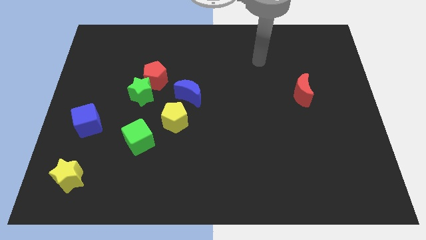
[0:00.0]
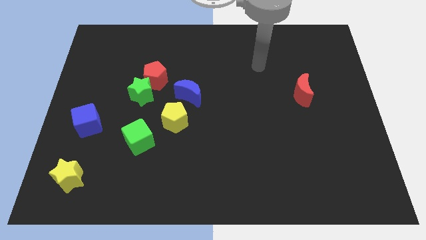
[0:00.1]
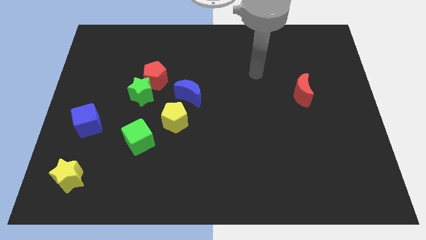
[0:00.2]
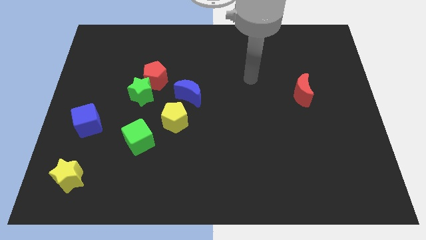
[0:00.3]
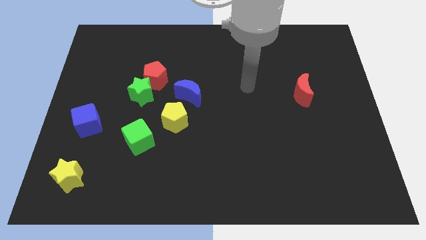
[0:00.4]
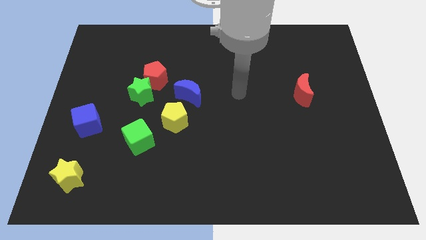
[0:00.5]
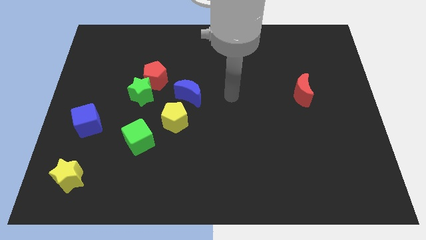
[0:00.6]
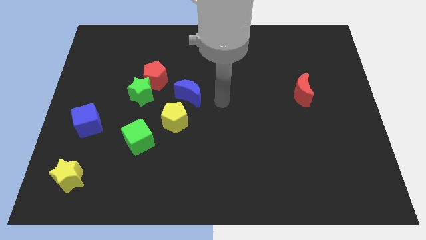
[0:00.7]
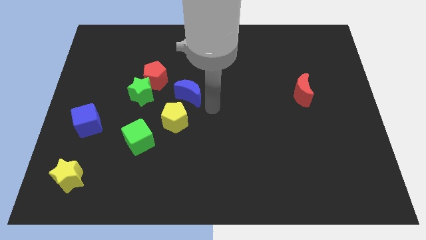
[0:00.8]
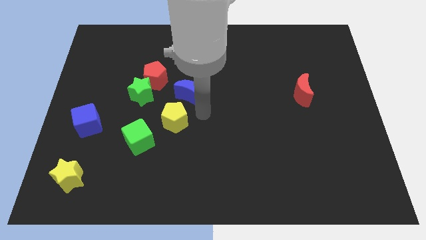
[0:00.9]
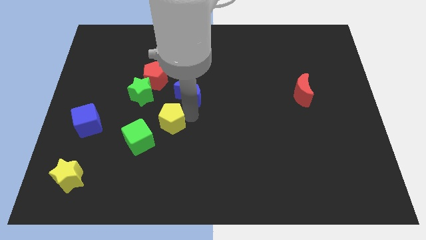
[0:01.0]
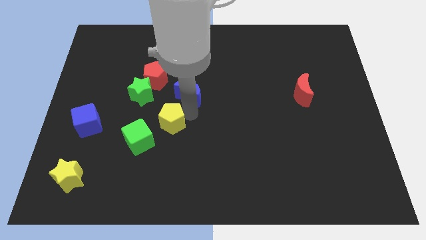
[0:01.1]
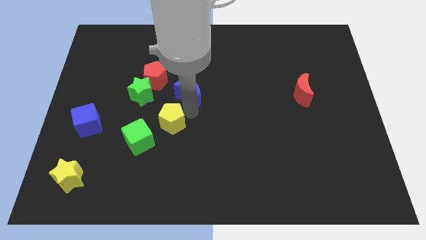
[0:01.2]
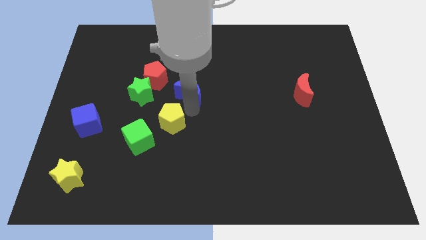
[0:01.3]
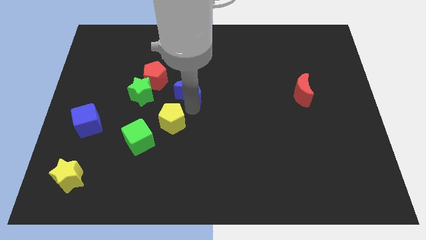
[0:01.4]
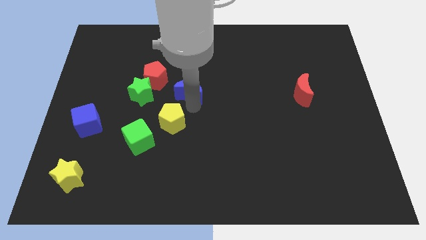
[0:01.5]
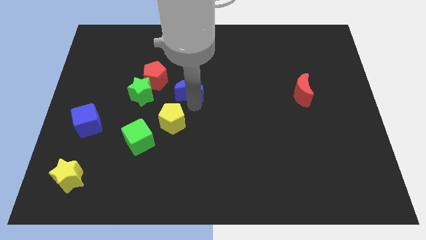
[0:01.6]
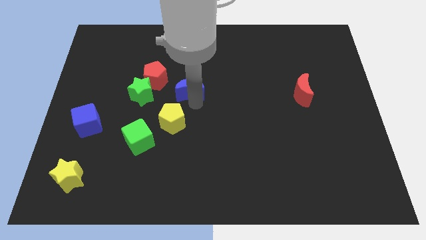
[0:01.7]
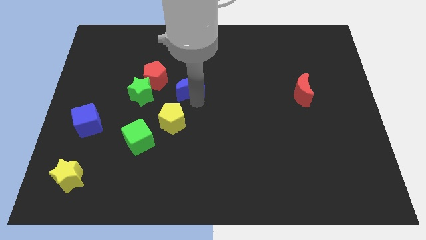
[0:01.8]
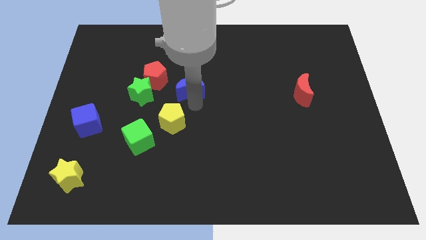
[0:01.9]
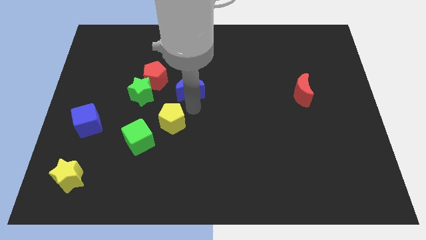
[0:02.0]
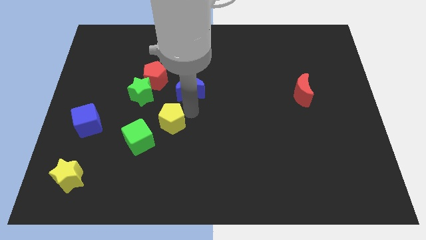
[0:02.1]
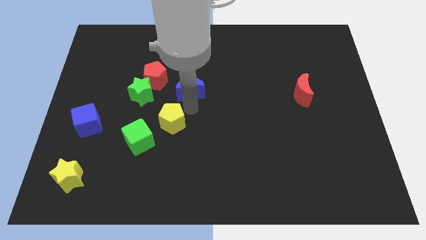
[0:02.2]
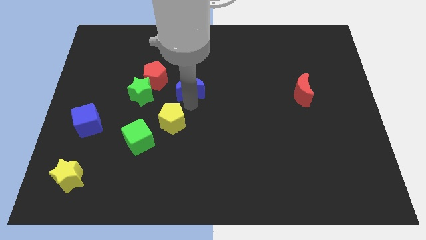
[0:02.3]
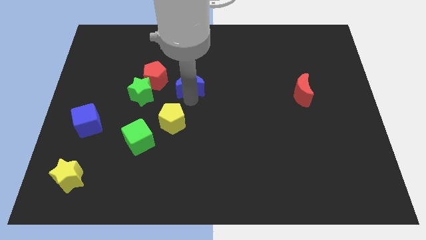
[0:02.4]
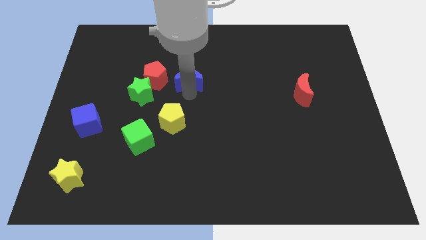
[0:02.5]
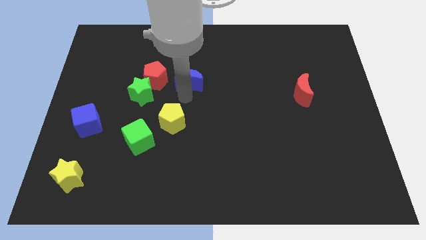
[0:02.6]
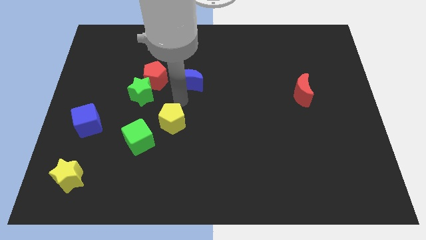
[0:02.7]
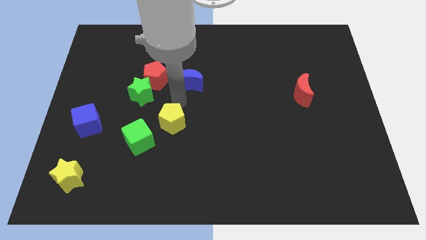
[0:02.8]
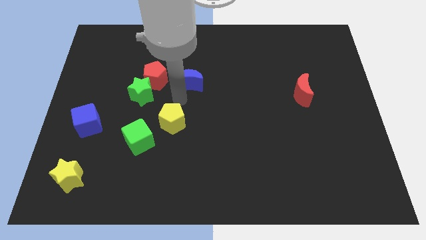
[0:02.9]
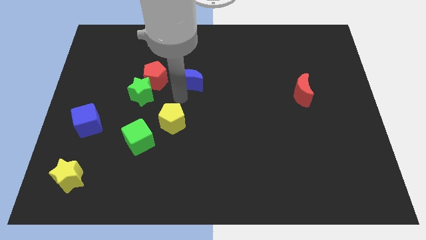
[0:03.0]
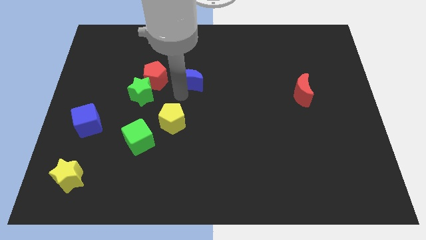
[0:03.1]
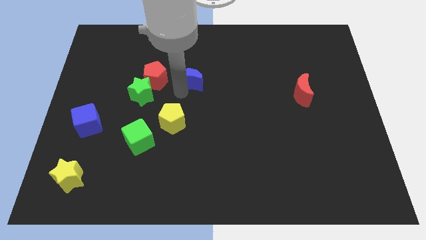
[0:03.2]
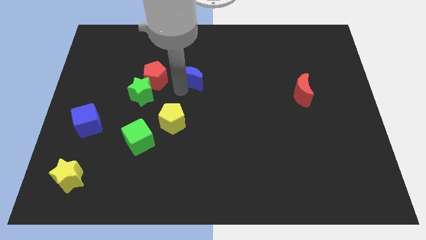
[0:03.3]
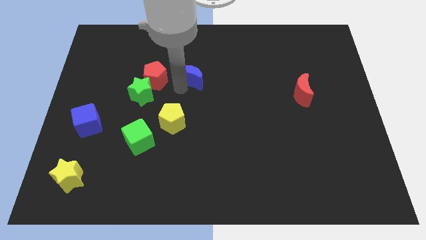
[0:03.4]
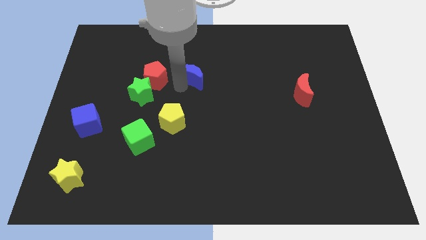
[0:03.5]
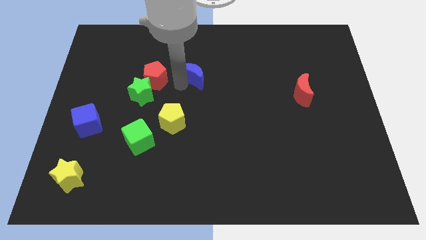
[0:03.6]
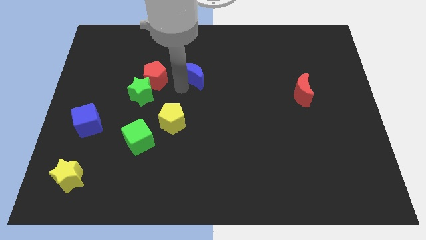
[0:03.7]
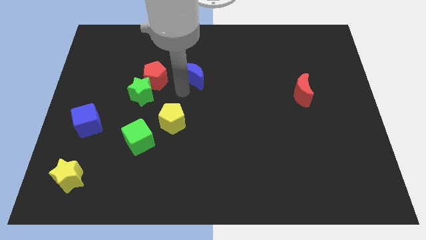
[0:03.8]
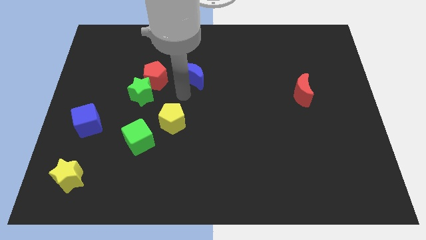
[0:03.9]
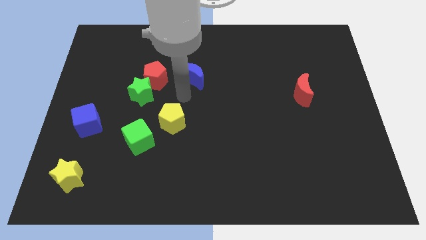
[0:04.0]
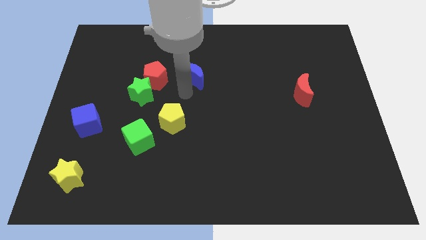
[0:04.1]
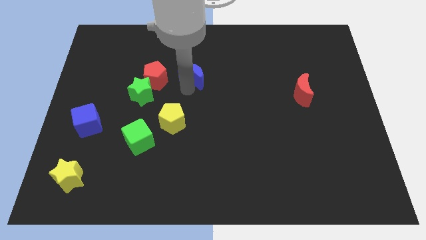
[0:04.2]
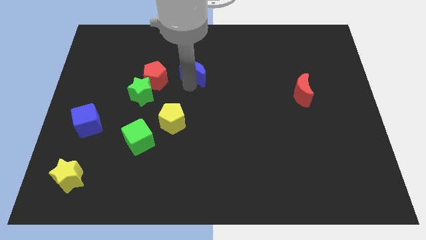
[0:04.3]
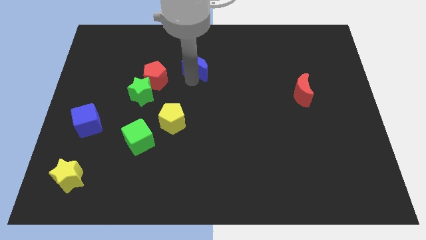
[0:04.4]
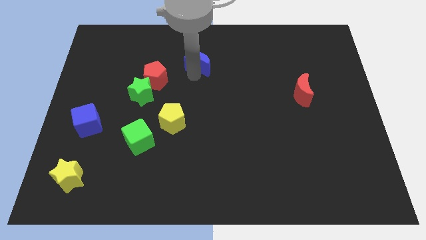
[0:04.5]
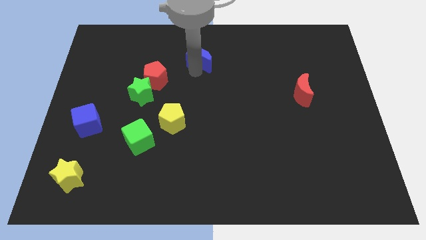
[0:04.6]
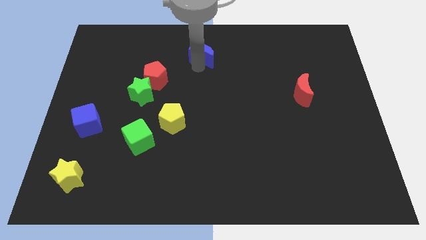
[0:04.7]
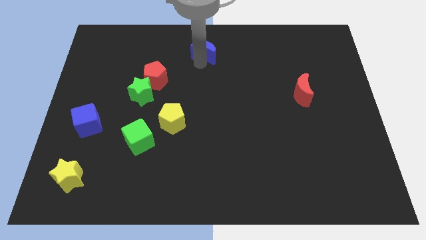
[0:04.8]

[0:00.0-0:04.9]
push the blue moon to the towards your base

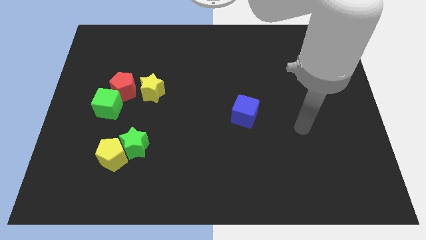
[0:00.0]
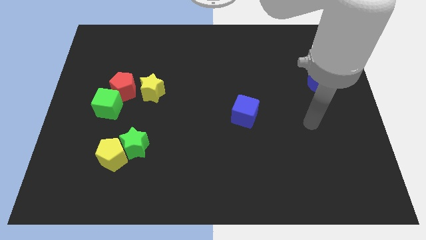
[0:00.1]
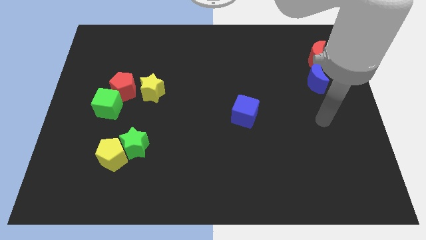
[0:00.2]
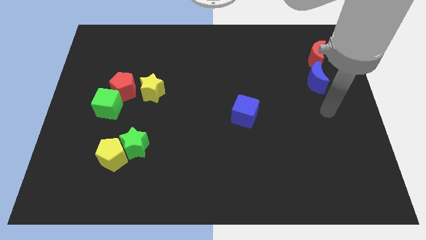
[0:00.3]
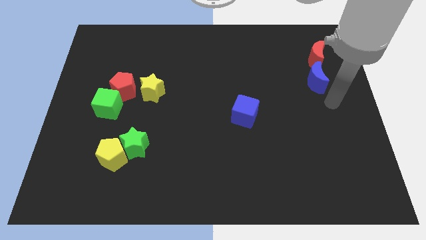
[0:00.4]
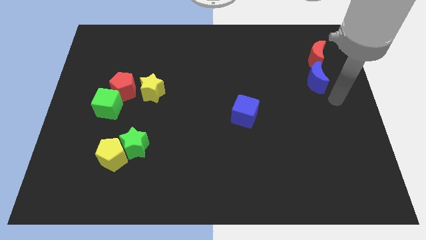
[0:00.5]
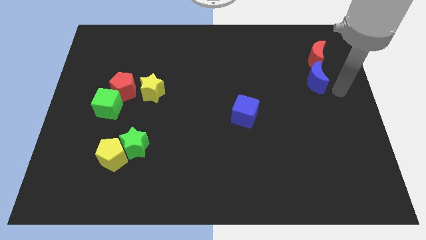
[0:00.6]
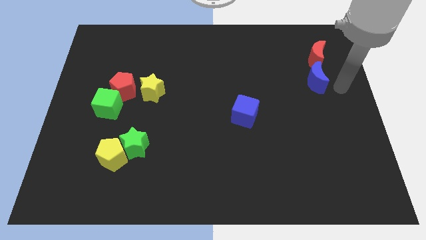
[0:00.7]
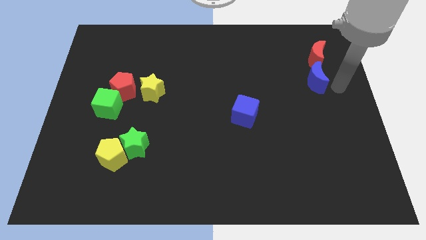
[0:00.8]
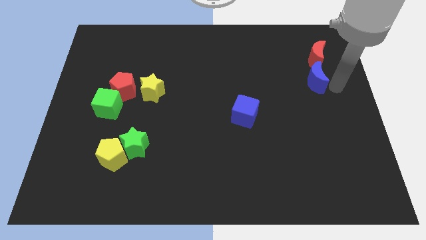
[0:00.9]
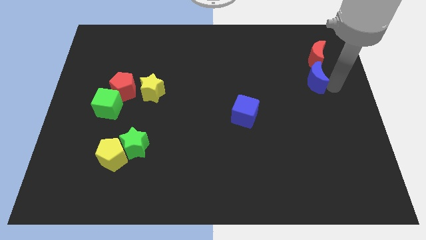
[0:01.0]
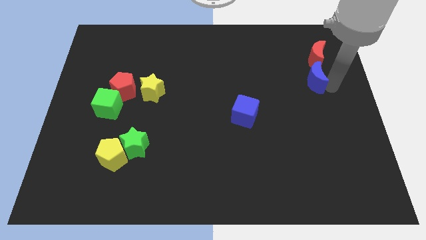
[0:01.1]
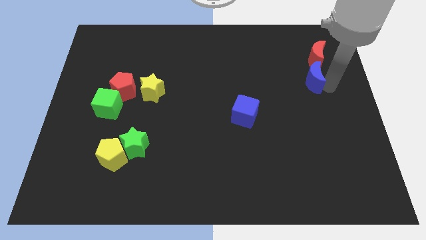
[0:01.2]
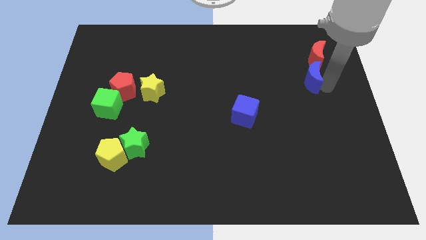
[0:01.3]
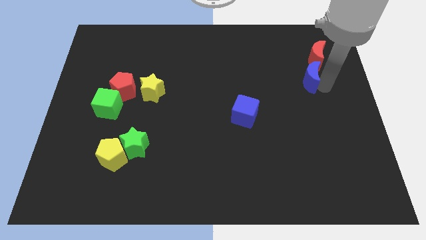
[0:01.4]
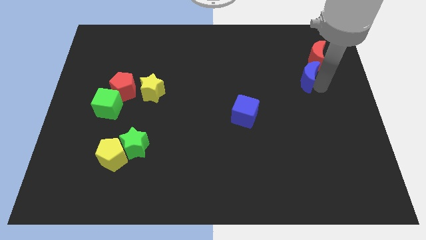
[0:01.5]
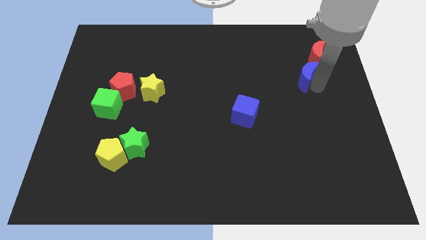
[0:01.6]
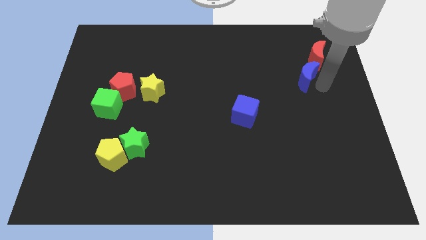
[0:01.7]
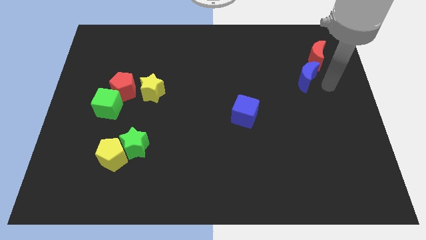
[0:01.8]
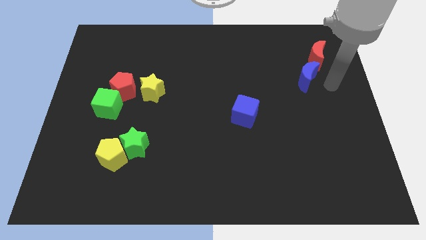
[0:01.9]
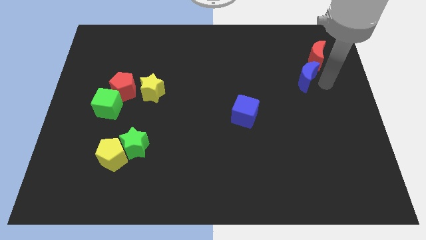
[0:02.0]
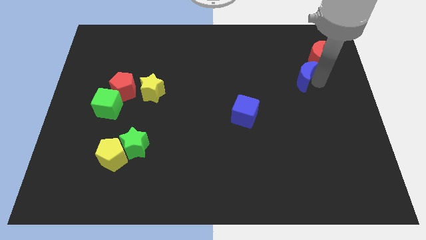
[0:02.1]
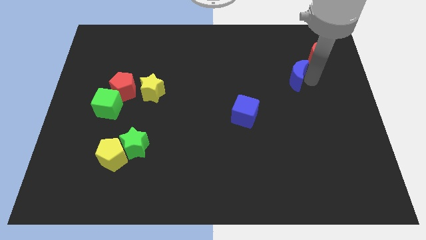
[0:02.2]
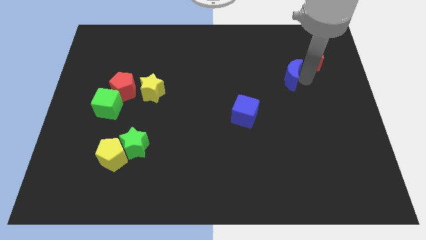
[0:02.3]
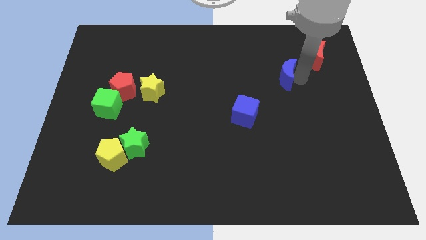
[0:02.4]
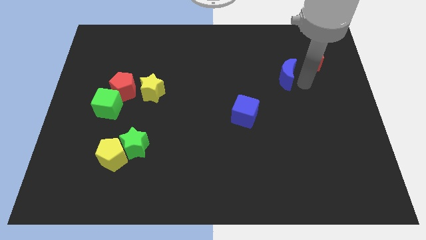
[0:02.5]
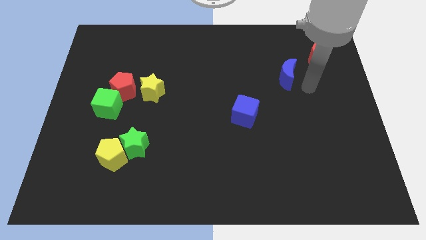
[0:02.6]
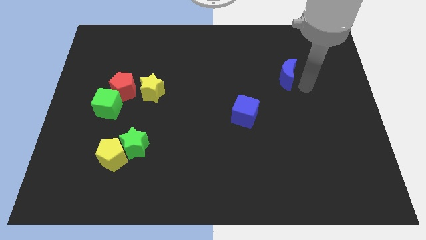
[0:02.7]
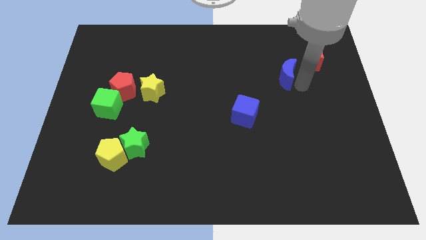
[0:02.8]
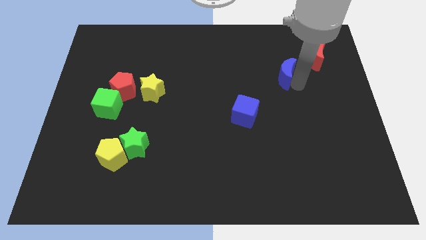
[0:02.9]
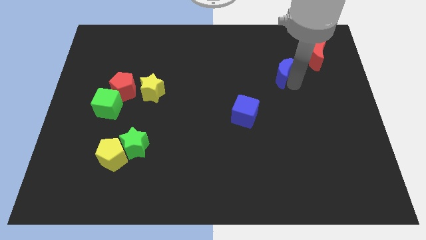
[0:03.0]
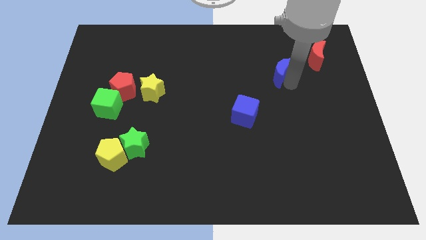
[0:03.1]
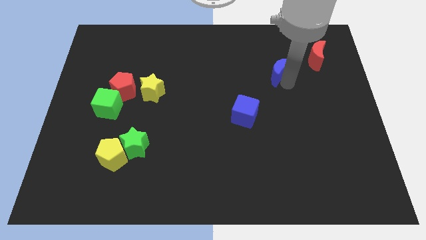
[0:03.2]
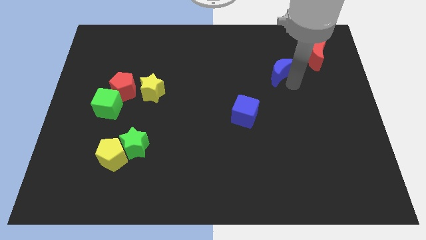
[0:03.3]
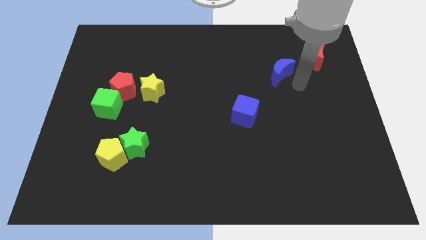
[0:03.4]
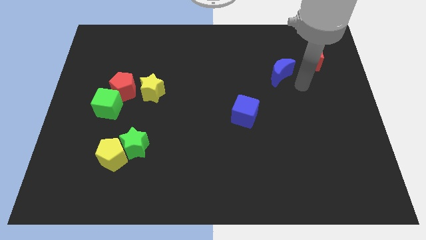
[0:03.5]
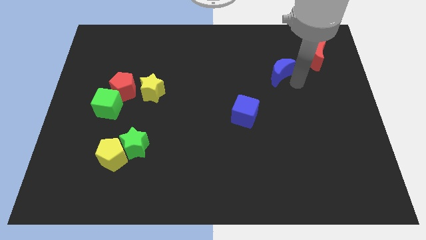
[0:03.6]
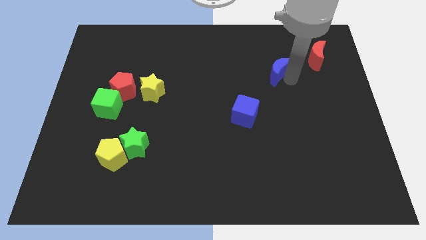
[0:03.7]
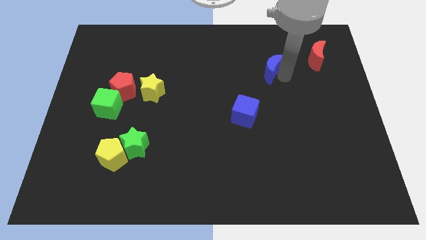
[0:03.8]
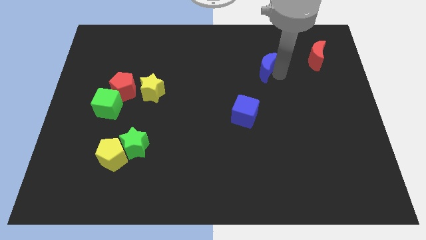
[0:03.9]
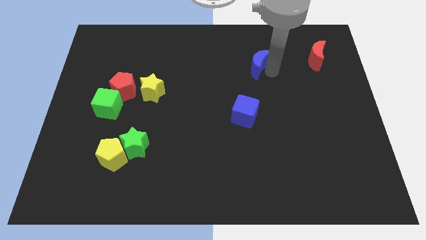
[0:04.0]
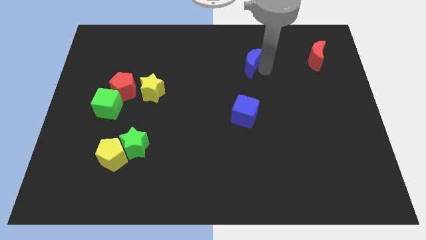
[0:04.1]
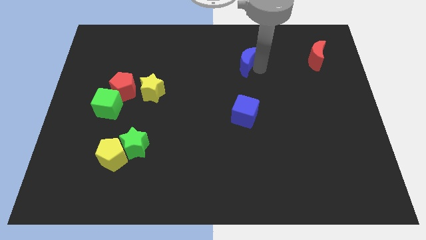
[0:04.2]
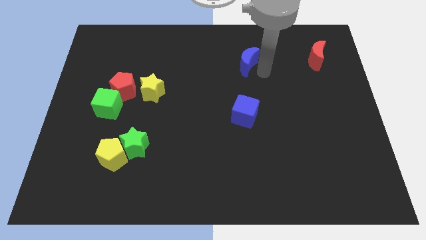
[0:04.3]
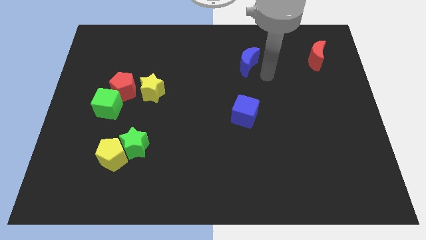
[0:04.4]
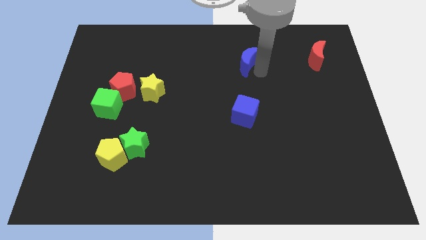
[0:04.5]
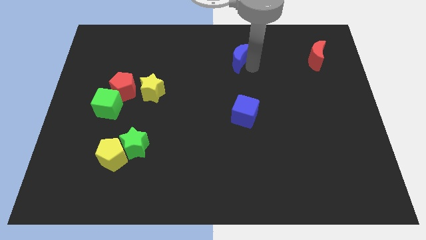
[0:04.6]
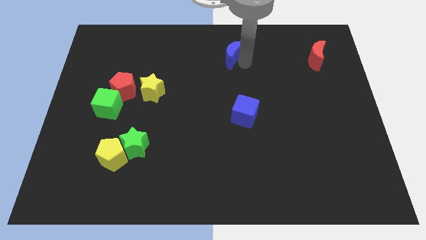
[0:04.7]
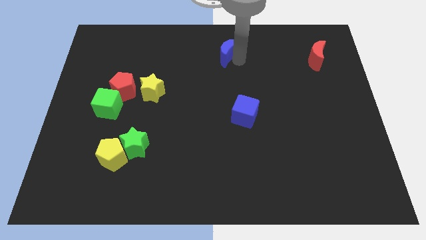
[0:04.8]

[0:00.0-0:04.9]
move the blue moon to the top side
